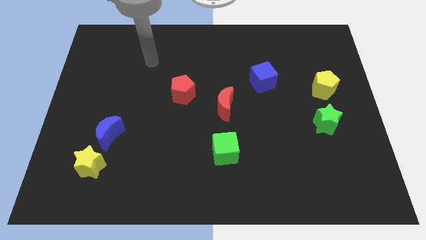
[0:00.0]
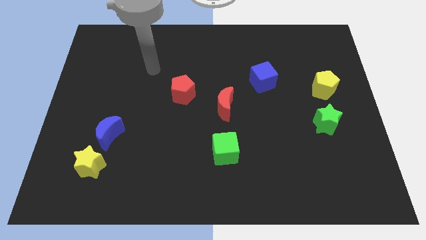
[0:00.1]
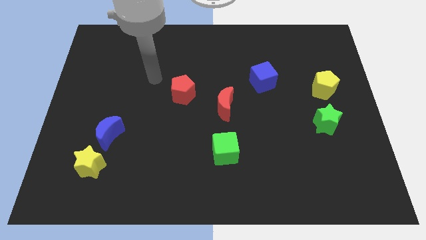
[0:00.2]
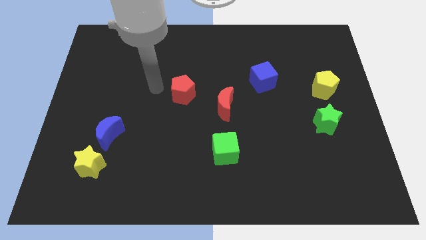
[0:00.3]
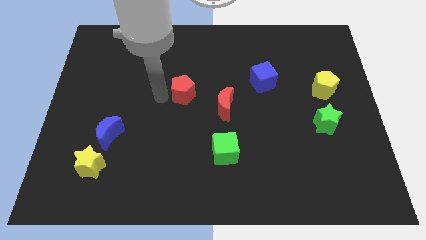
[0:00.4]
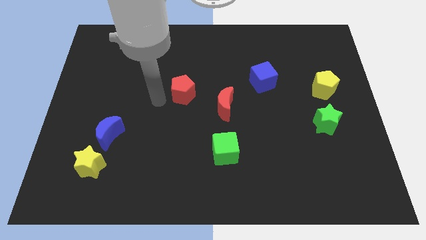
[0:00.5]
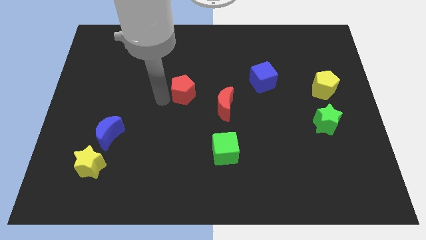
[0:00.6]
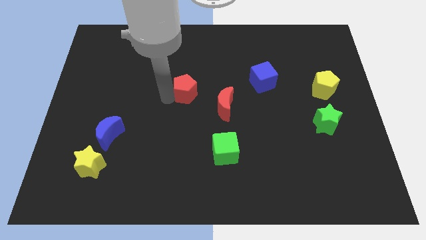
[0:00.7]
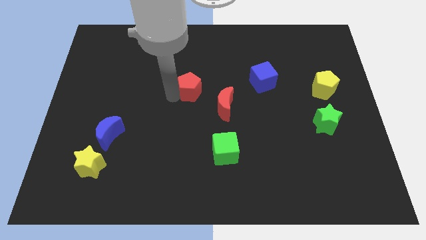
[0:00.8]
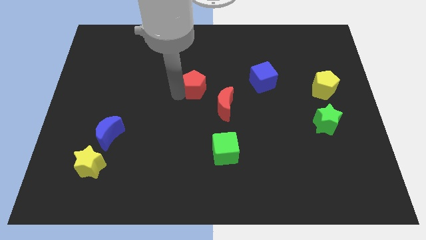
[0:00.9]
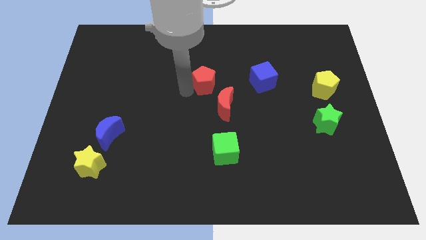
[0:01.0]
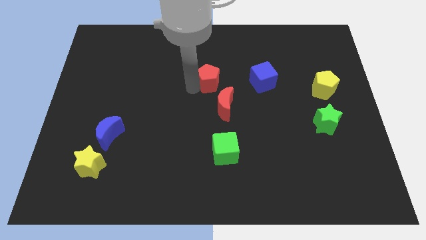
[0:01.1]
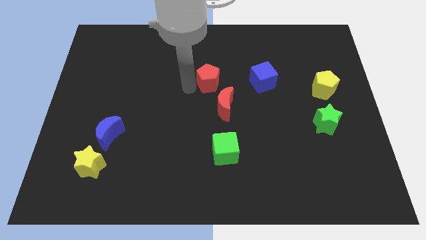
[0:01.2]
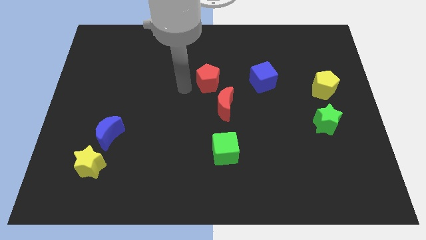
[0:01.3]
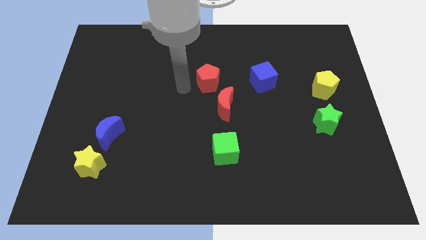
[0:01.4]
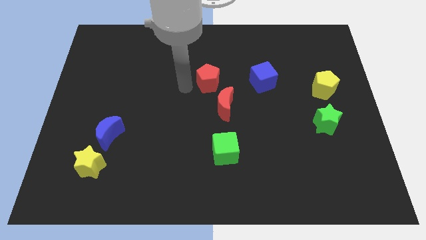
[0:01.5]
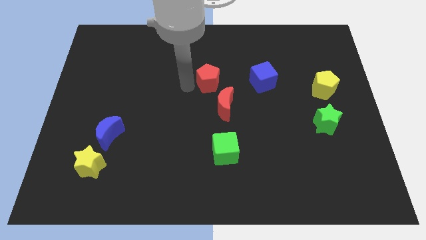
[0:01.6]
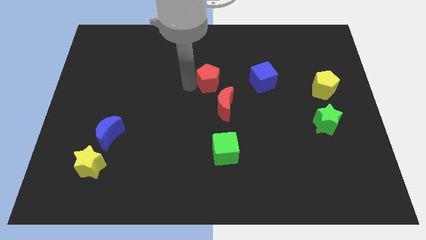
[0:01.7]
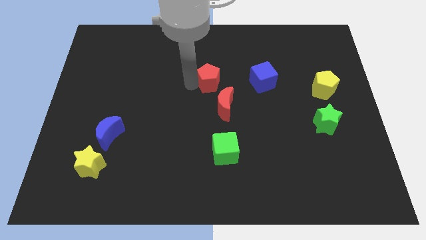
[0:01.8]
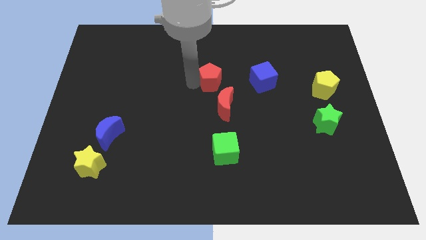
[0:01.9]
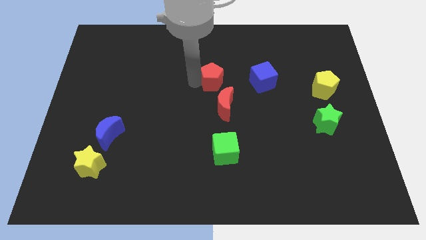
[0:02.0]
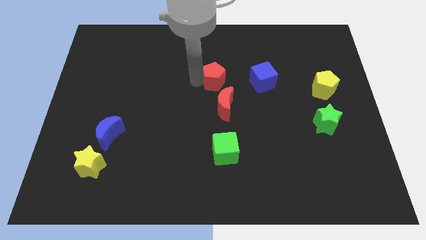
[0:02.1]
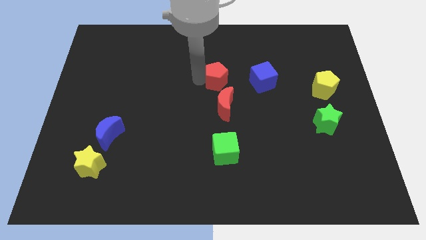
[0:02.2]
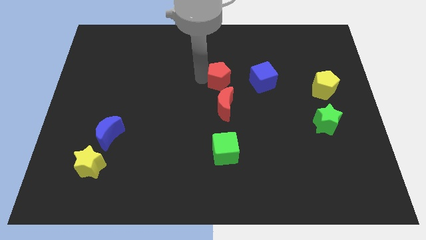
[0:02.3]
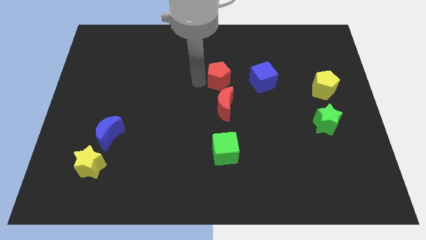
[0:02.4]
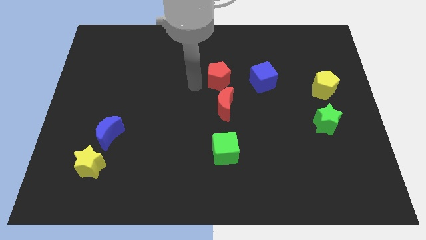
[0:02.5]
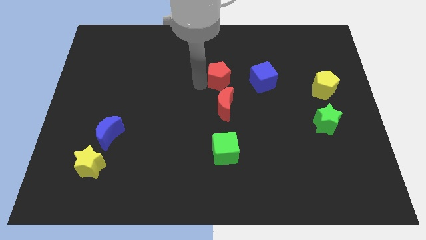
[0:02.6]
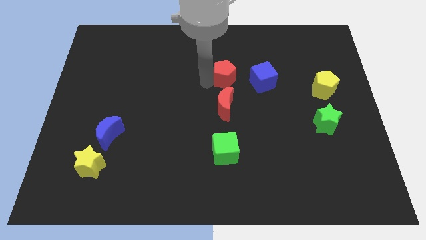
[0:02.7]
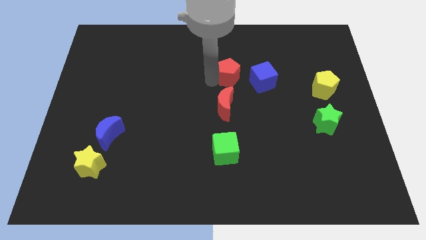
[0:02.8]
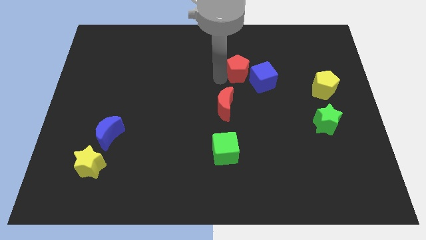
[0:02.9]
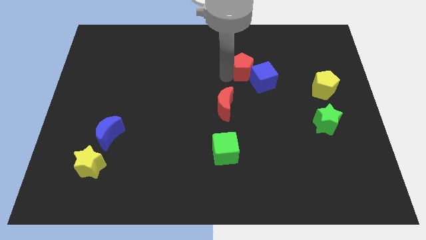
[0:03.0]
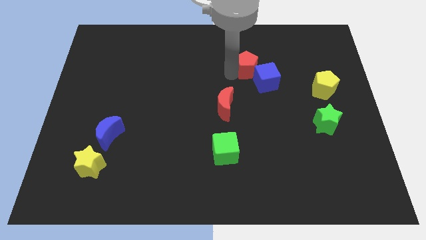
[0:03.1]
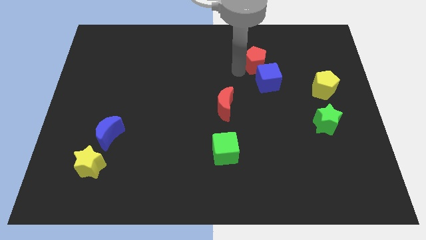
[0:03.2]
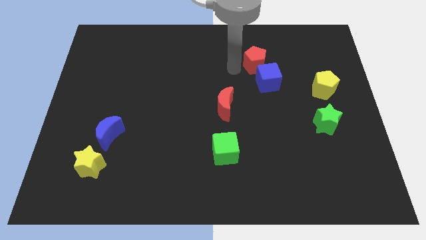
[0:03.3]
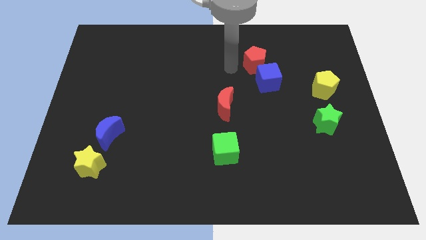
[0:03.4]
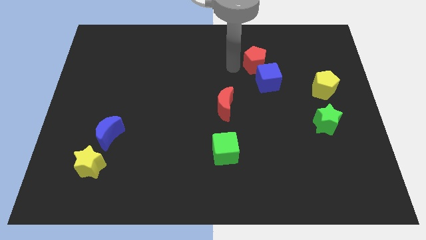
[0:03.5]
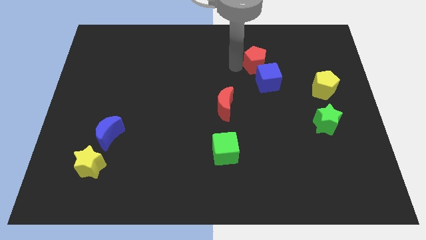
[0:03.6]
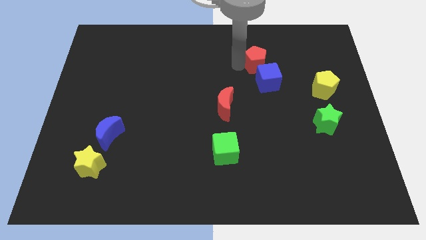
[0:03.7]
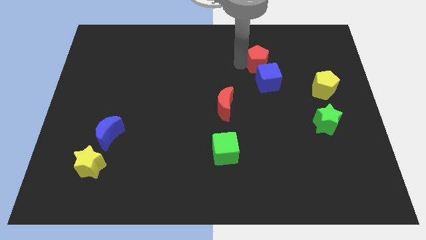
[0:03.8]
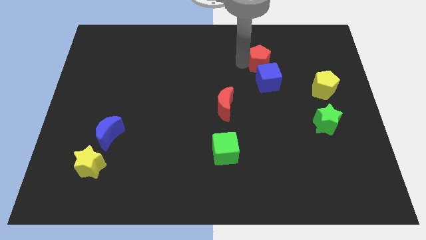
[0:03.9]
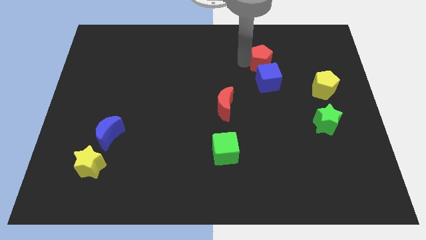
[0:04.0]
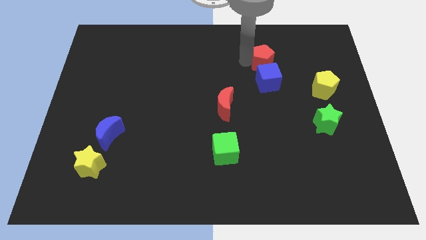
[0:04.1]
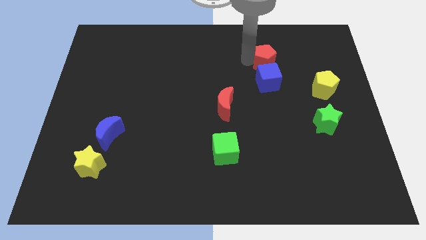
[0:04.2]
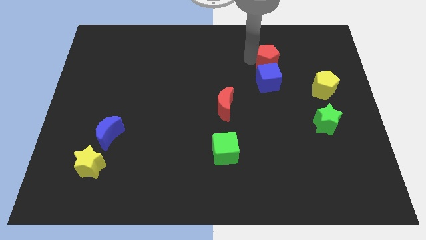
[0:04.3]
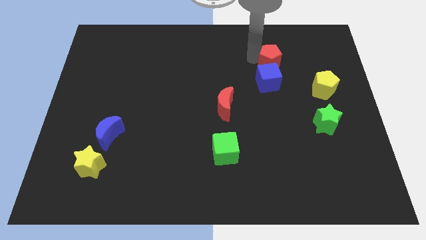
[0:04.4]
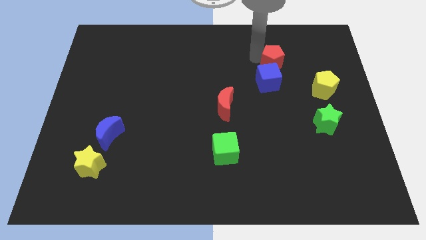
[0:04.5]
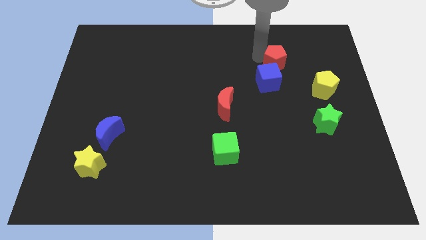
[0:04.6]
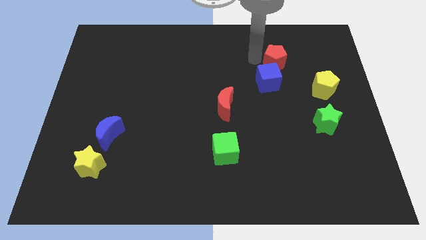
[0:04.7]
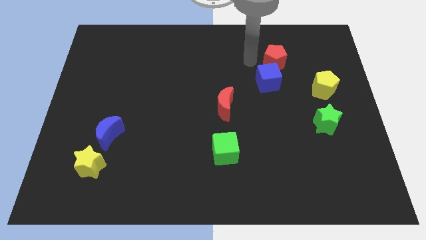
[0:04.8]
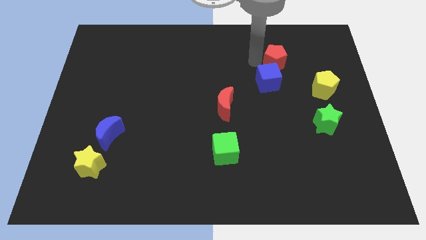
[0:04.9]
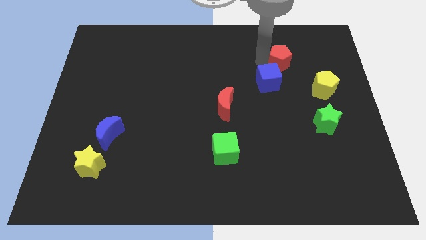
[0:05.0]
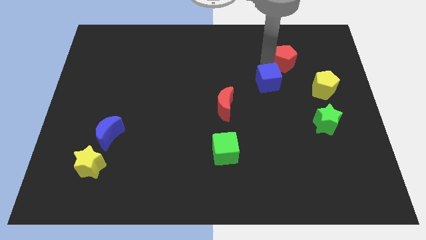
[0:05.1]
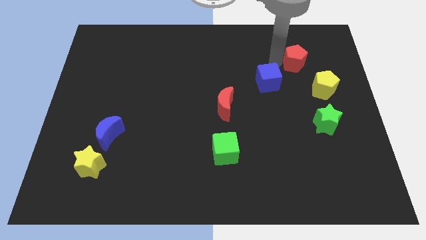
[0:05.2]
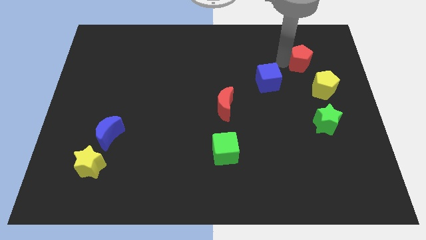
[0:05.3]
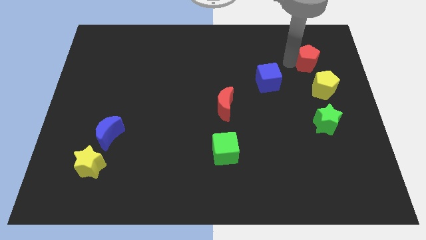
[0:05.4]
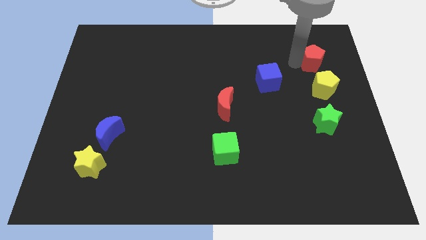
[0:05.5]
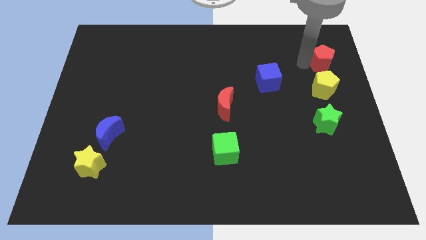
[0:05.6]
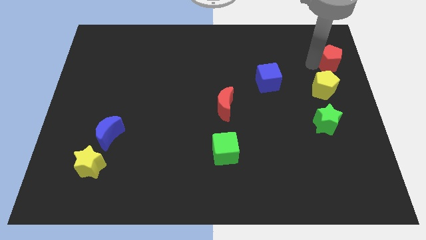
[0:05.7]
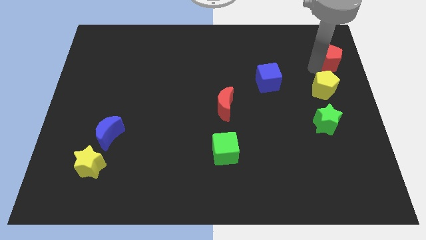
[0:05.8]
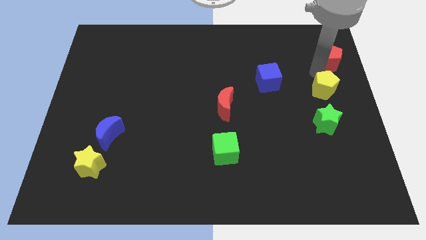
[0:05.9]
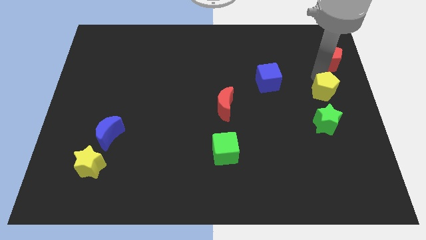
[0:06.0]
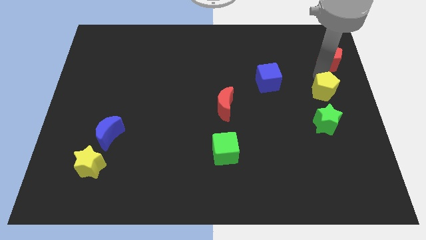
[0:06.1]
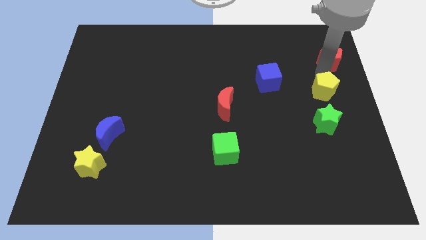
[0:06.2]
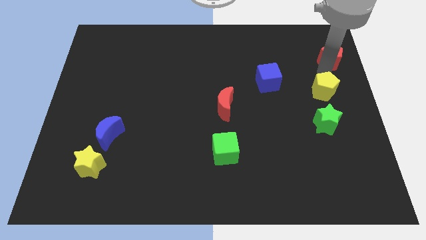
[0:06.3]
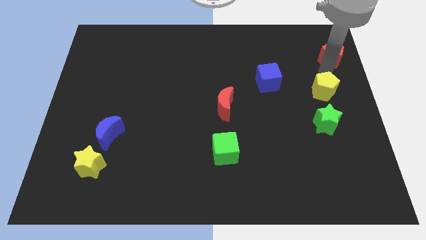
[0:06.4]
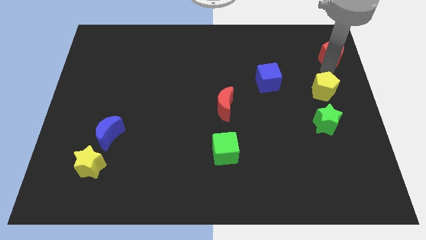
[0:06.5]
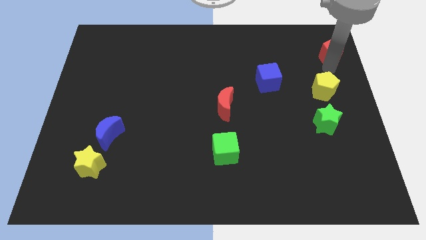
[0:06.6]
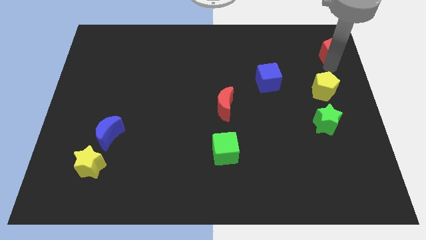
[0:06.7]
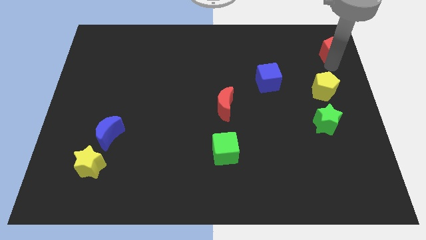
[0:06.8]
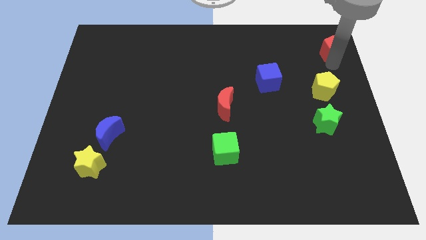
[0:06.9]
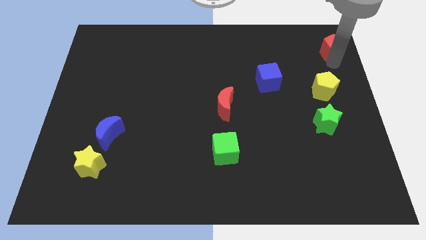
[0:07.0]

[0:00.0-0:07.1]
slide the red pentagon to the upper right corner

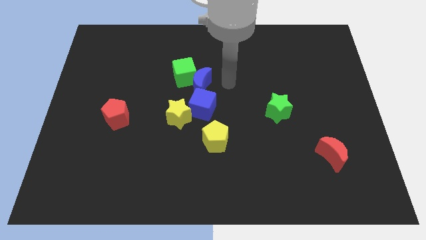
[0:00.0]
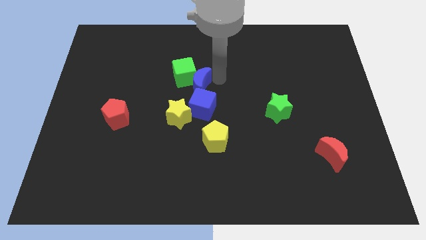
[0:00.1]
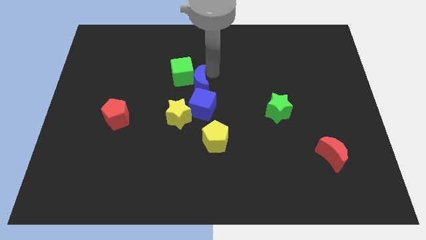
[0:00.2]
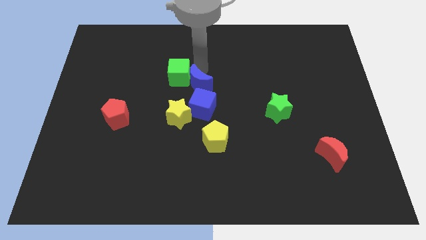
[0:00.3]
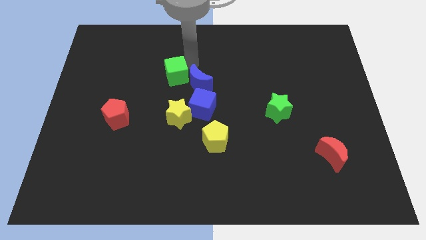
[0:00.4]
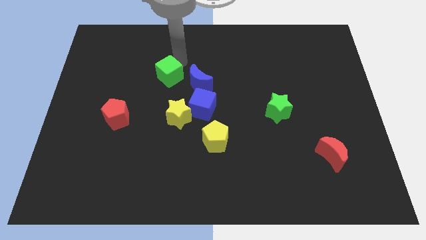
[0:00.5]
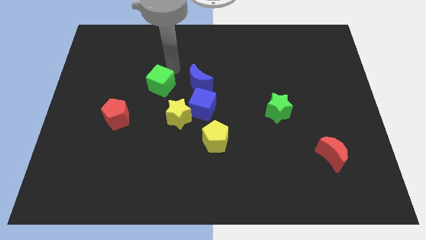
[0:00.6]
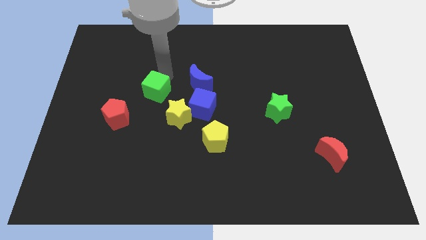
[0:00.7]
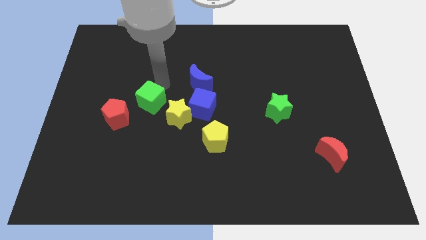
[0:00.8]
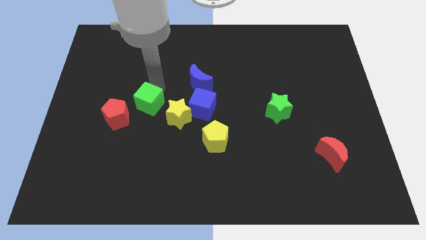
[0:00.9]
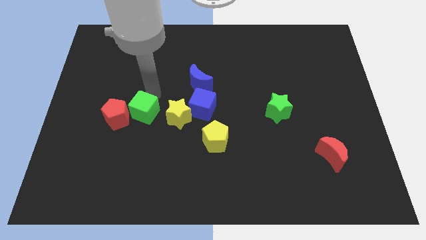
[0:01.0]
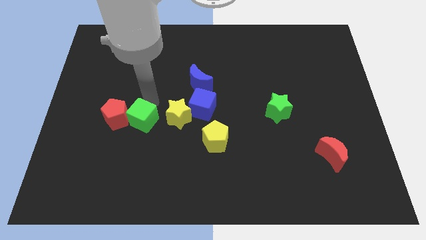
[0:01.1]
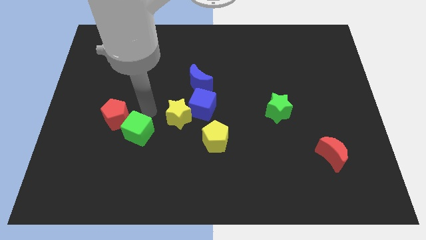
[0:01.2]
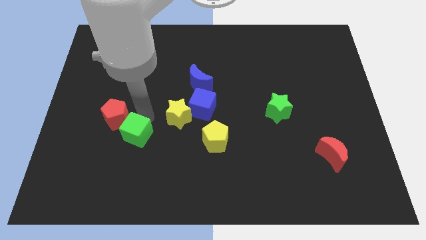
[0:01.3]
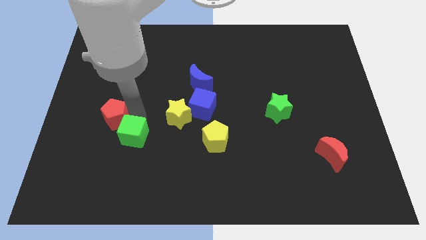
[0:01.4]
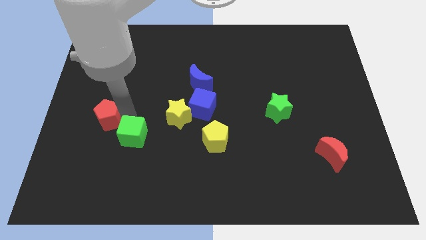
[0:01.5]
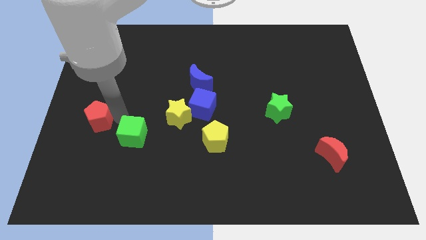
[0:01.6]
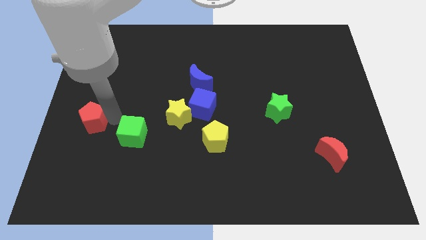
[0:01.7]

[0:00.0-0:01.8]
put the red pentagon to the left side
